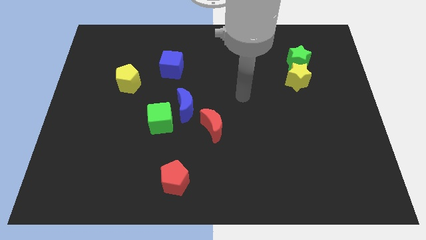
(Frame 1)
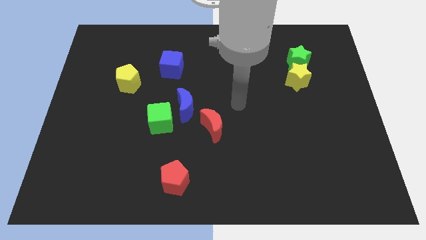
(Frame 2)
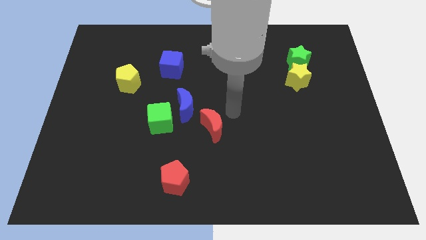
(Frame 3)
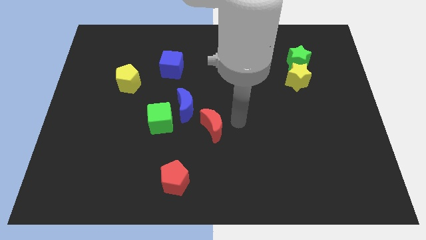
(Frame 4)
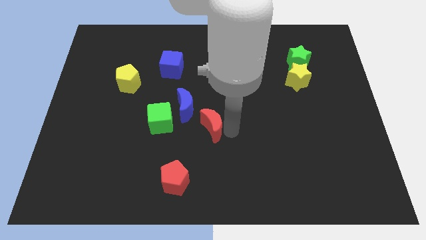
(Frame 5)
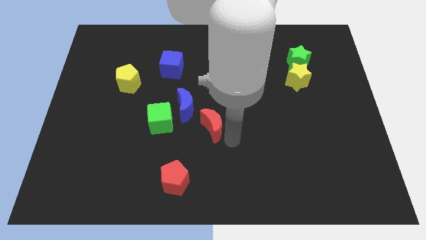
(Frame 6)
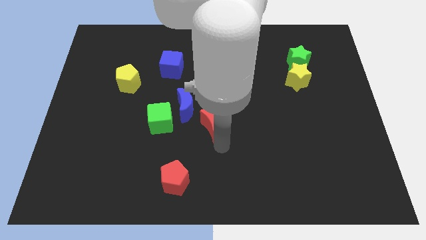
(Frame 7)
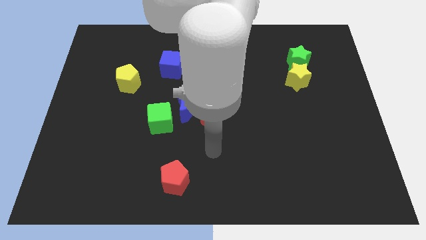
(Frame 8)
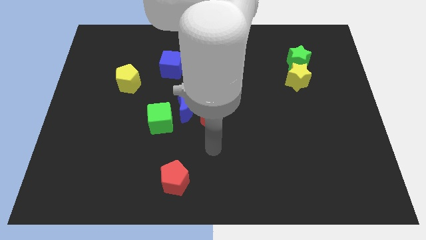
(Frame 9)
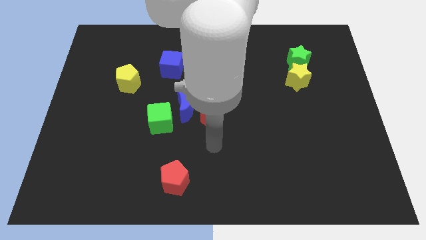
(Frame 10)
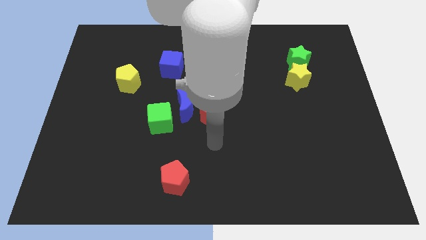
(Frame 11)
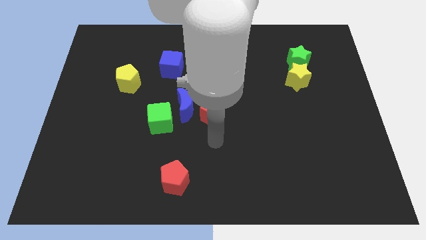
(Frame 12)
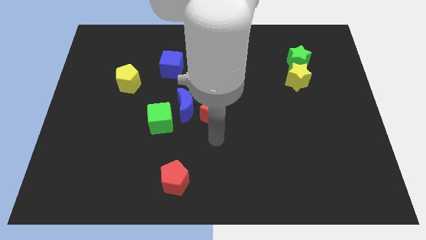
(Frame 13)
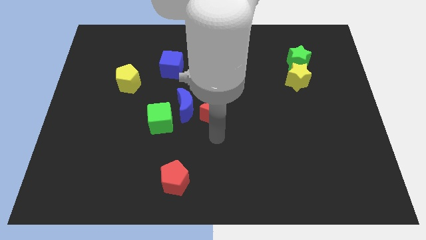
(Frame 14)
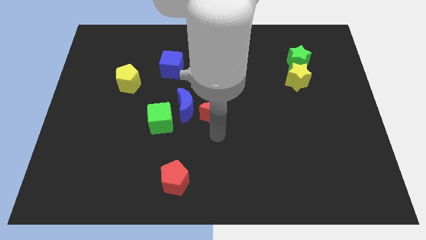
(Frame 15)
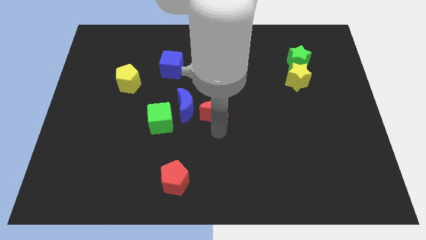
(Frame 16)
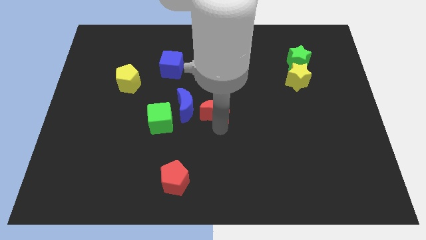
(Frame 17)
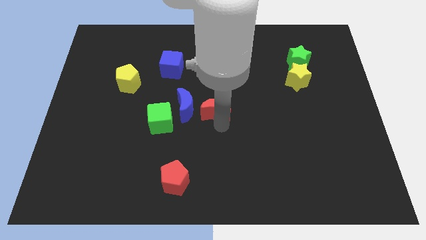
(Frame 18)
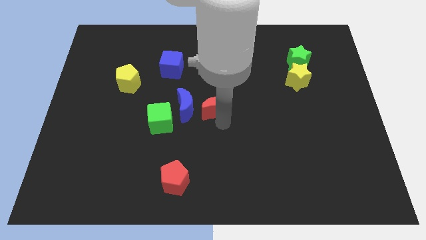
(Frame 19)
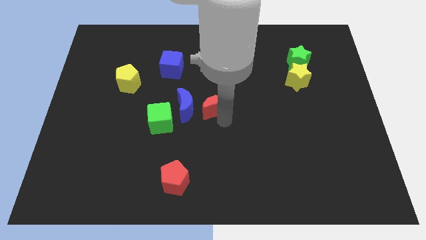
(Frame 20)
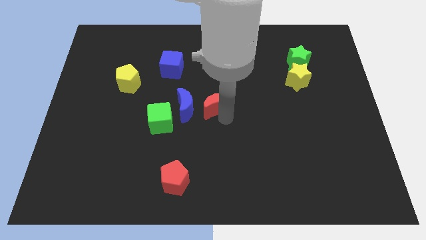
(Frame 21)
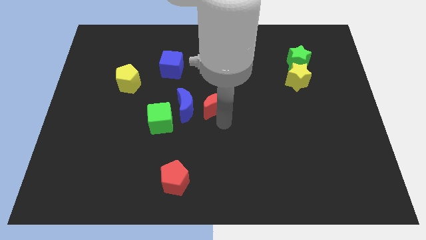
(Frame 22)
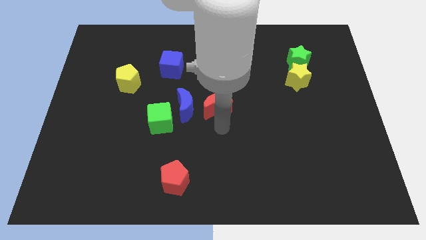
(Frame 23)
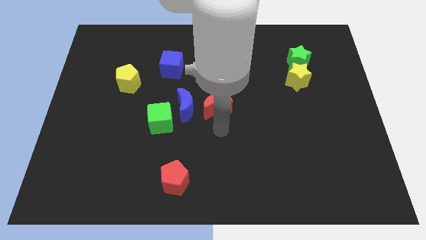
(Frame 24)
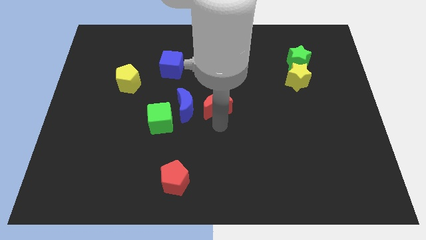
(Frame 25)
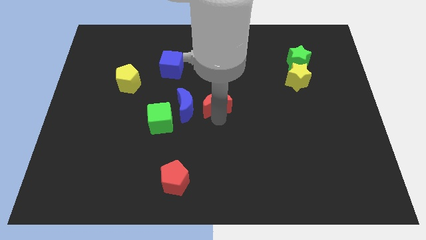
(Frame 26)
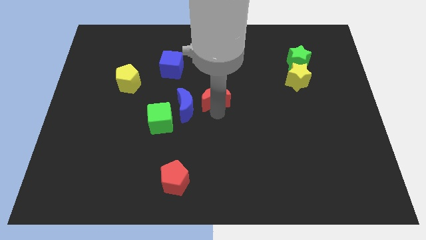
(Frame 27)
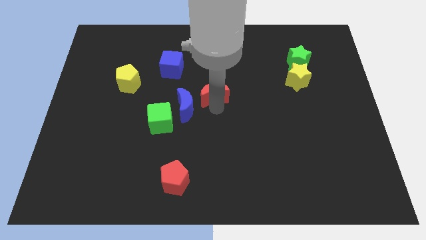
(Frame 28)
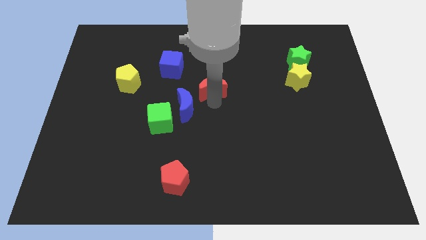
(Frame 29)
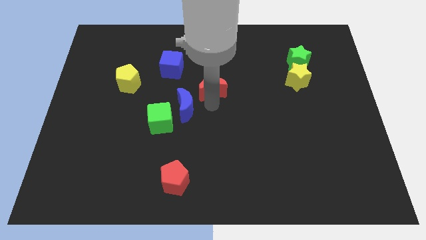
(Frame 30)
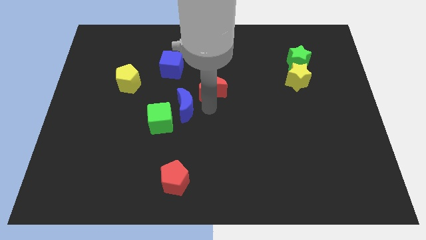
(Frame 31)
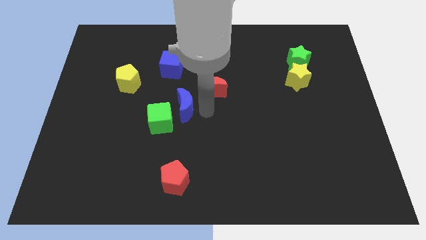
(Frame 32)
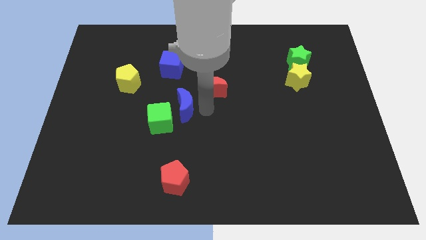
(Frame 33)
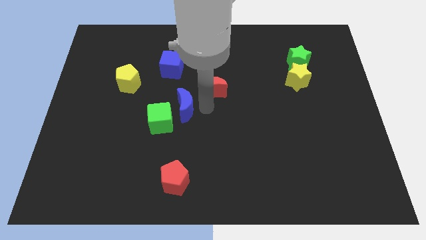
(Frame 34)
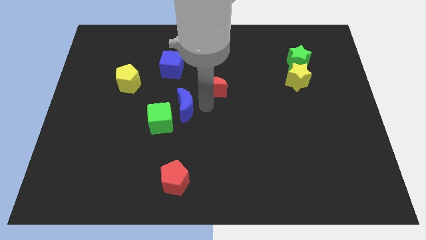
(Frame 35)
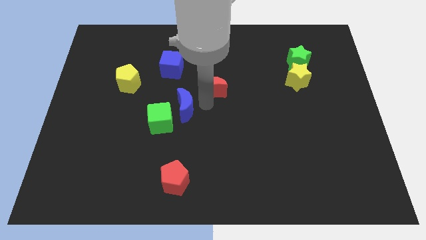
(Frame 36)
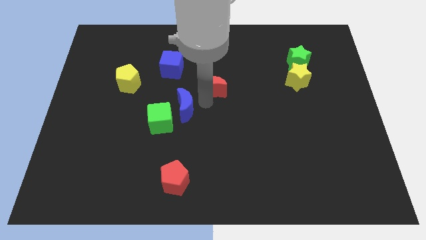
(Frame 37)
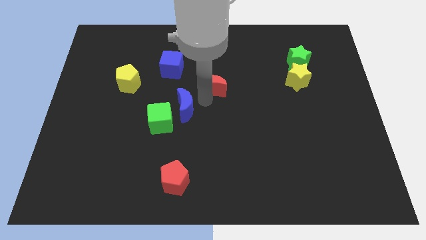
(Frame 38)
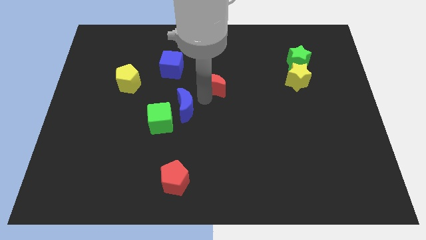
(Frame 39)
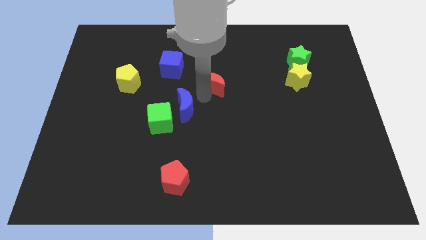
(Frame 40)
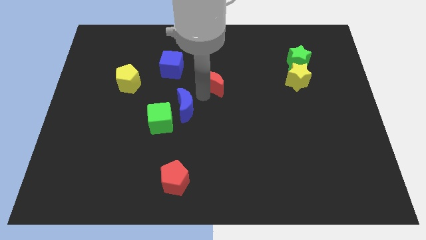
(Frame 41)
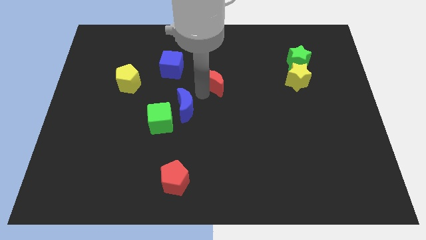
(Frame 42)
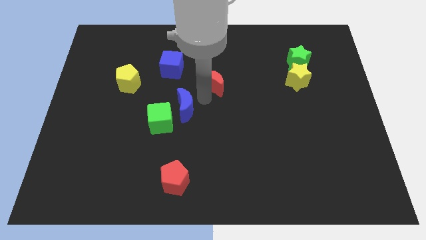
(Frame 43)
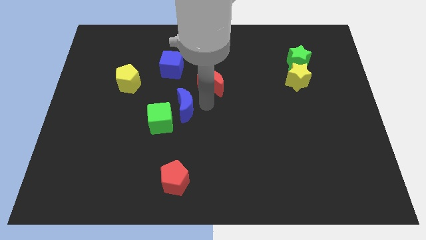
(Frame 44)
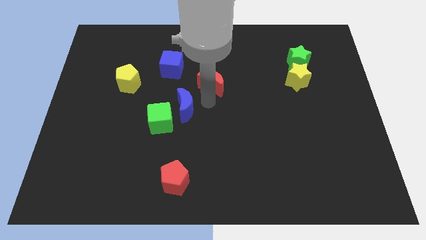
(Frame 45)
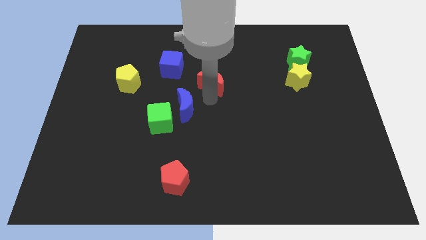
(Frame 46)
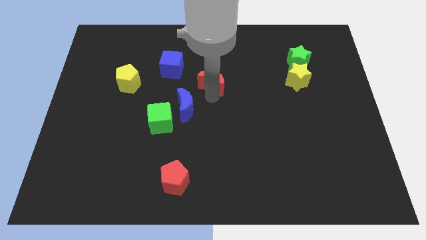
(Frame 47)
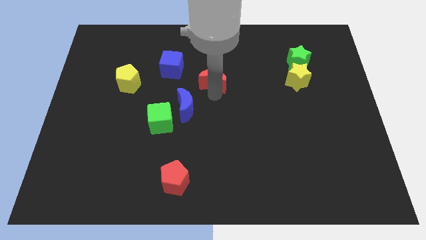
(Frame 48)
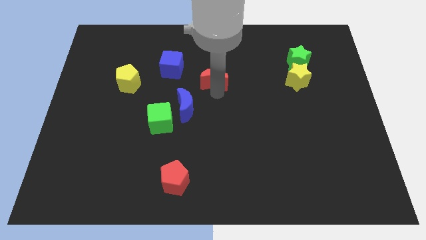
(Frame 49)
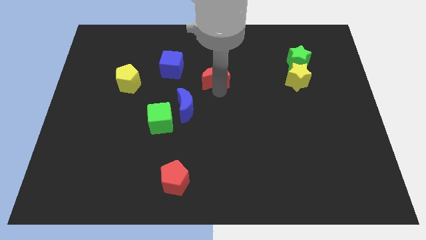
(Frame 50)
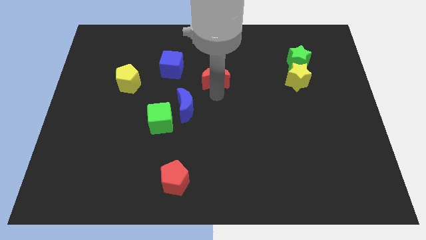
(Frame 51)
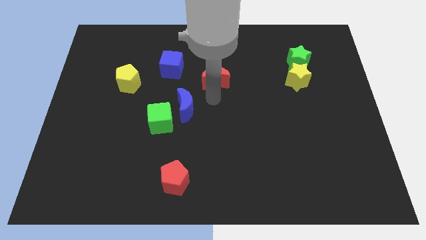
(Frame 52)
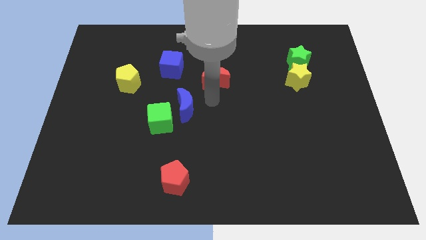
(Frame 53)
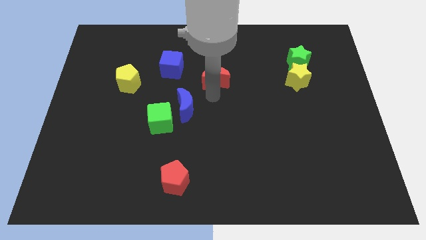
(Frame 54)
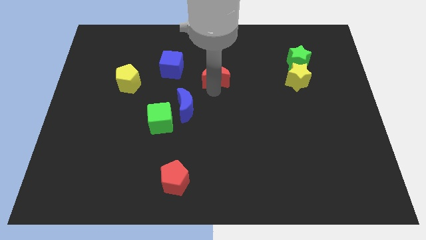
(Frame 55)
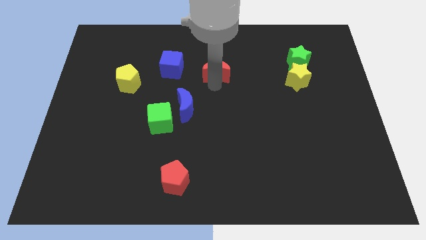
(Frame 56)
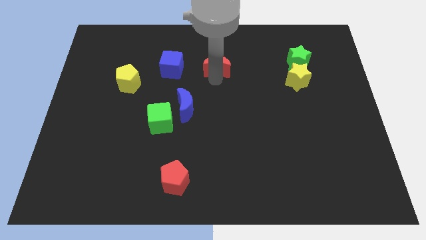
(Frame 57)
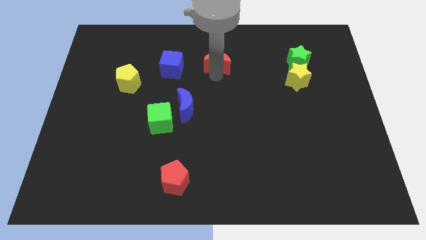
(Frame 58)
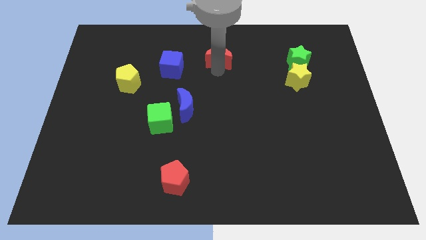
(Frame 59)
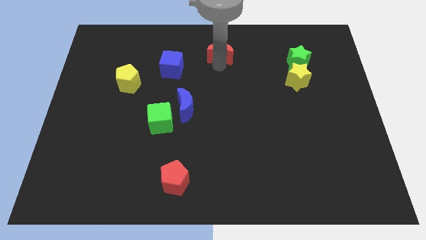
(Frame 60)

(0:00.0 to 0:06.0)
put the red moon to the top

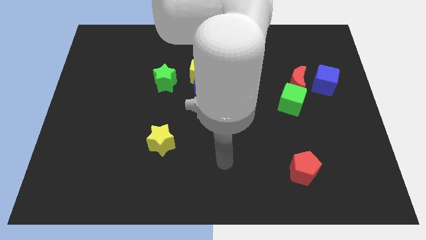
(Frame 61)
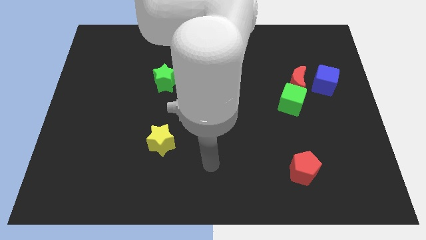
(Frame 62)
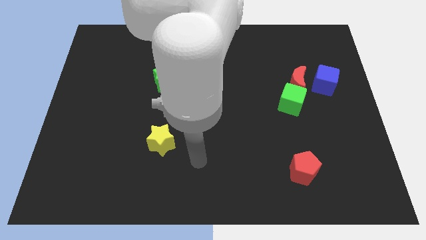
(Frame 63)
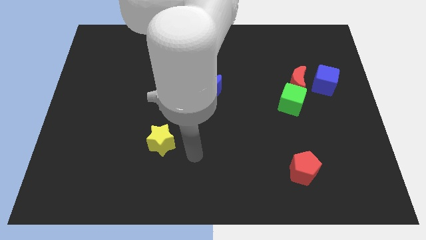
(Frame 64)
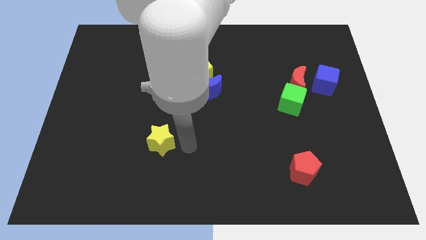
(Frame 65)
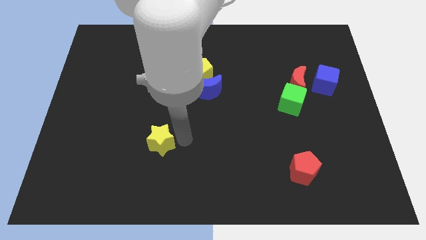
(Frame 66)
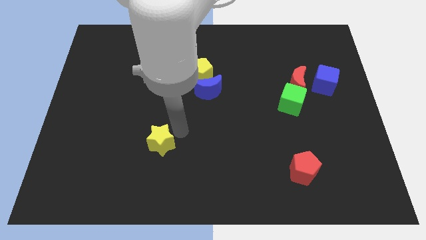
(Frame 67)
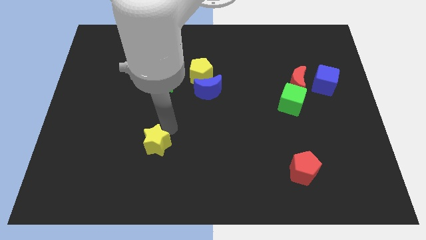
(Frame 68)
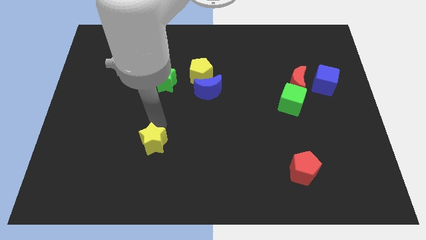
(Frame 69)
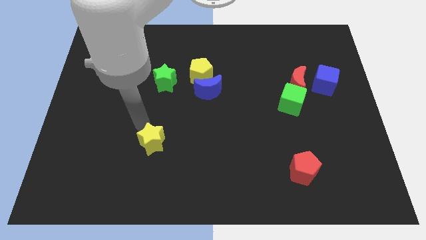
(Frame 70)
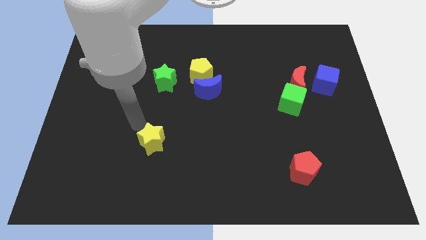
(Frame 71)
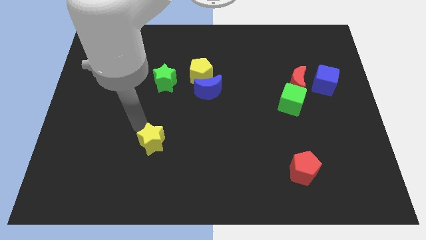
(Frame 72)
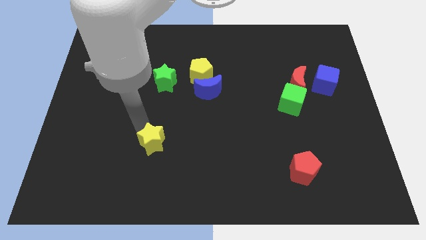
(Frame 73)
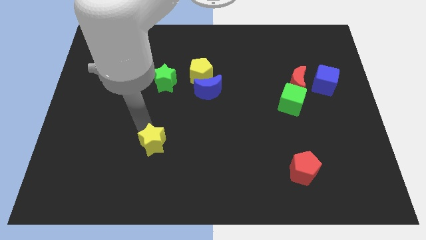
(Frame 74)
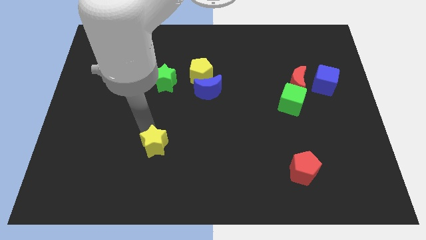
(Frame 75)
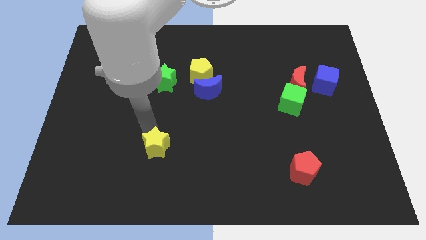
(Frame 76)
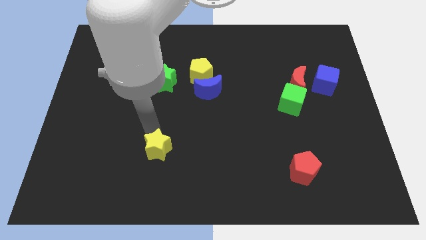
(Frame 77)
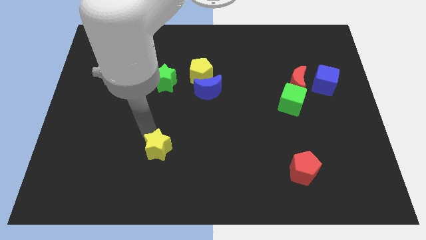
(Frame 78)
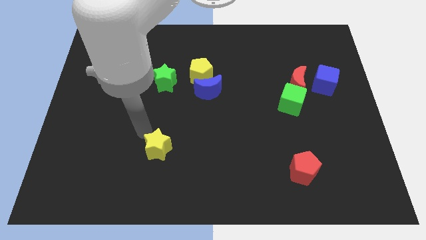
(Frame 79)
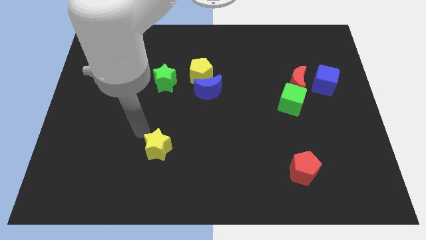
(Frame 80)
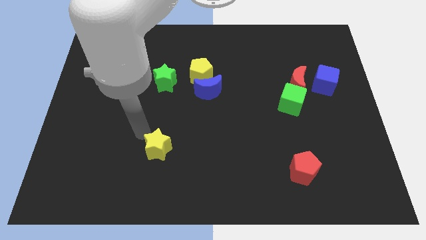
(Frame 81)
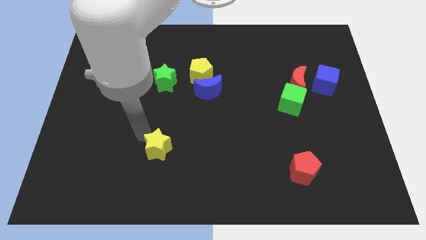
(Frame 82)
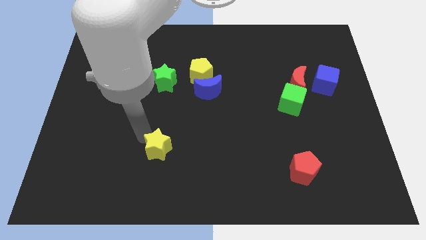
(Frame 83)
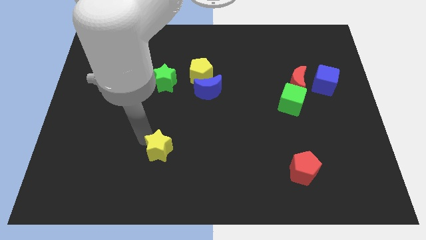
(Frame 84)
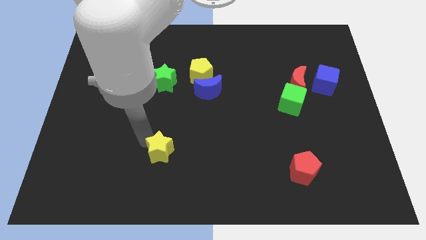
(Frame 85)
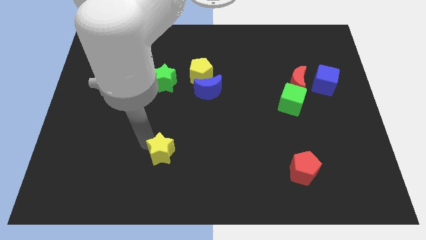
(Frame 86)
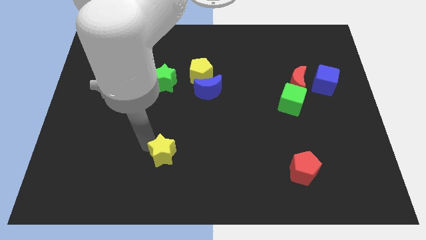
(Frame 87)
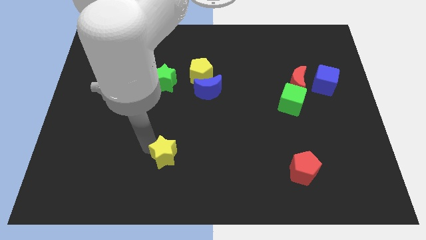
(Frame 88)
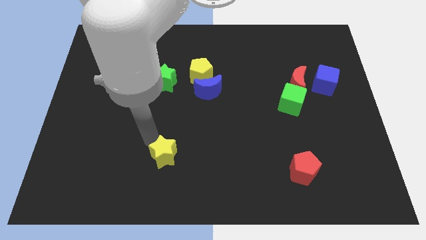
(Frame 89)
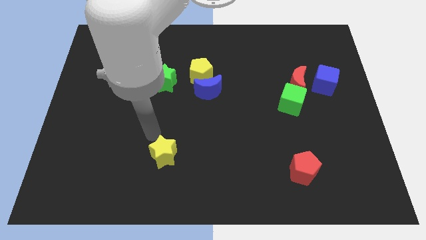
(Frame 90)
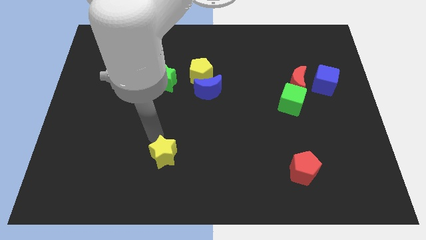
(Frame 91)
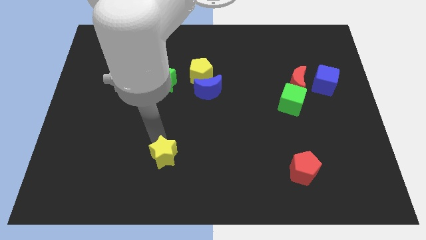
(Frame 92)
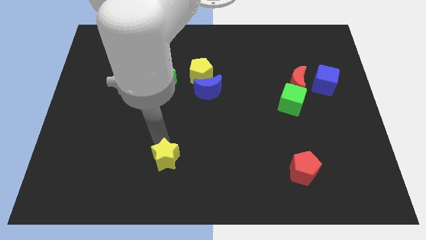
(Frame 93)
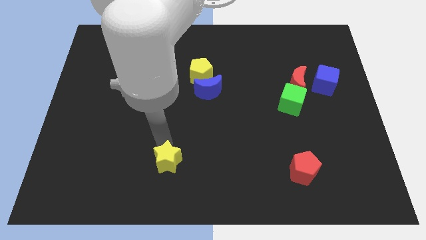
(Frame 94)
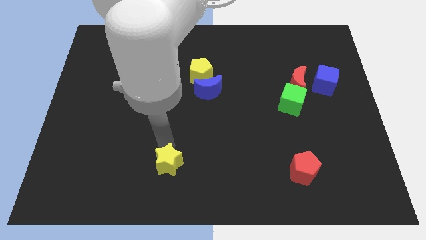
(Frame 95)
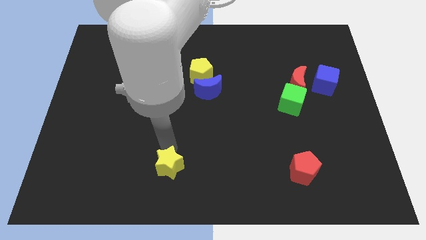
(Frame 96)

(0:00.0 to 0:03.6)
move the yellow star to the bottom
